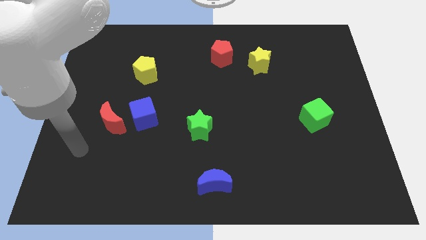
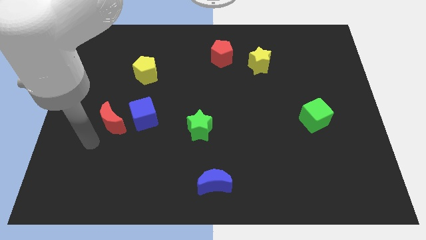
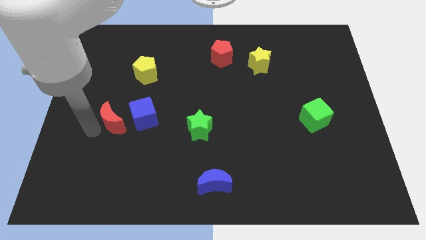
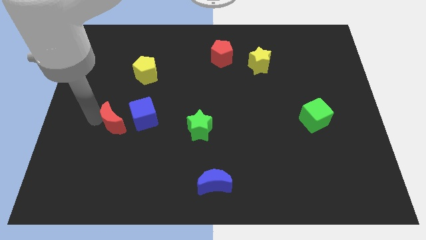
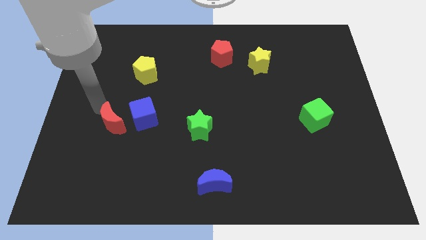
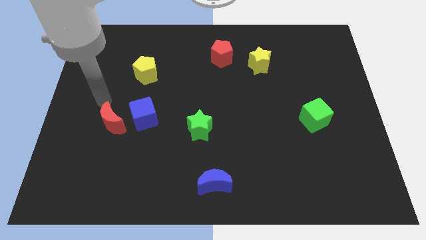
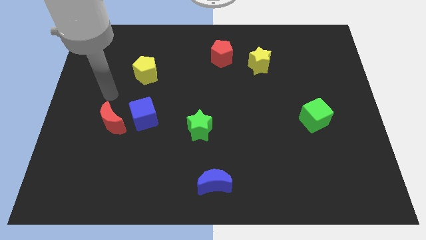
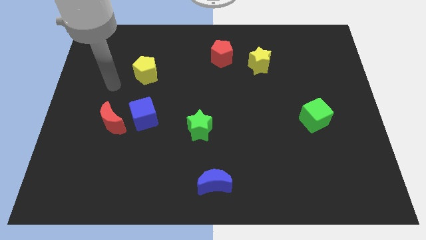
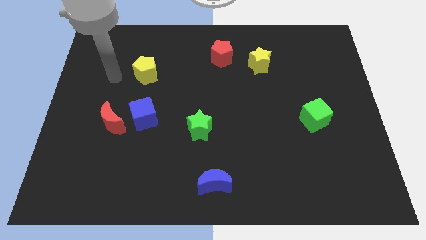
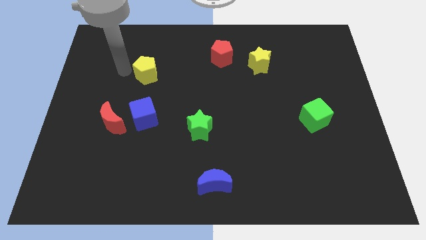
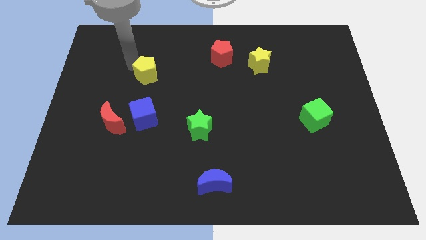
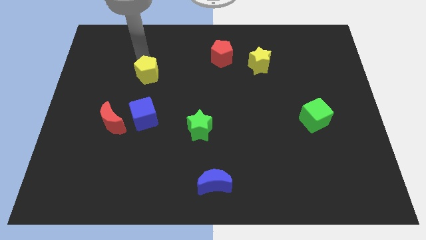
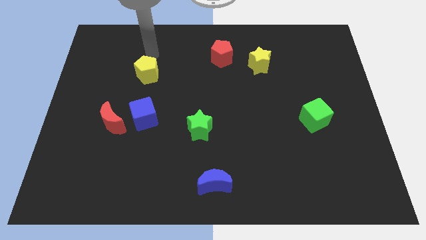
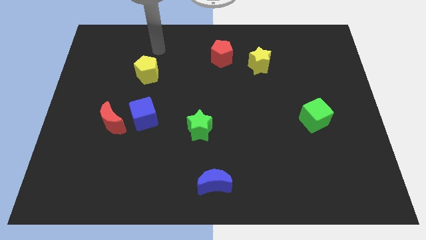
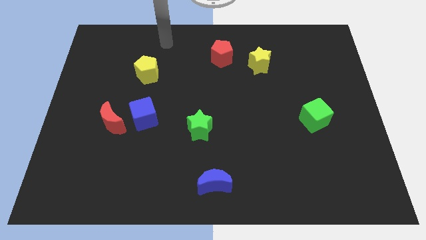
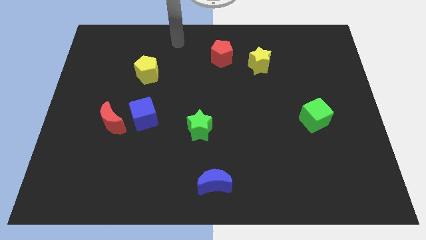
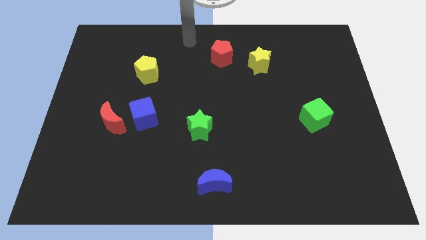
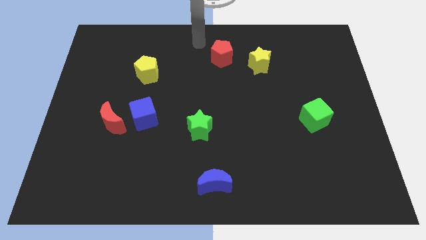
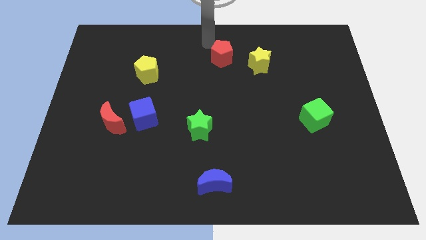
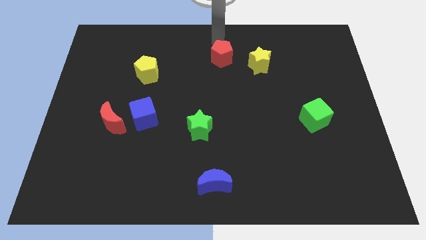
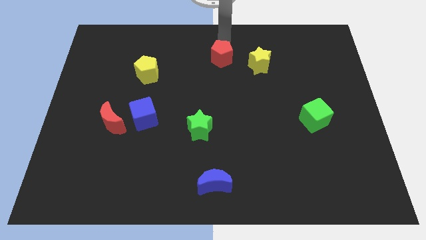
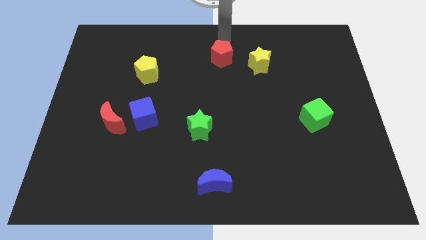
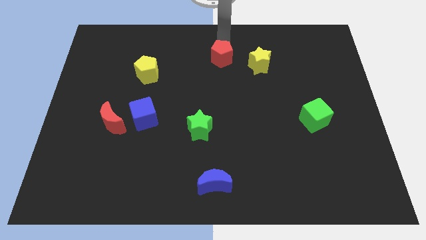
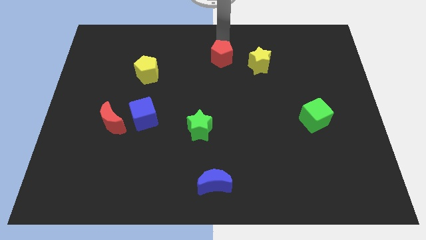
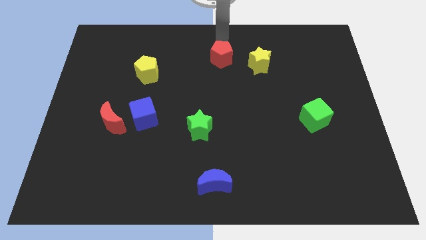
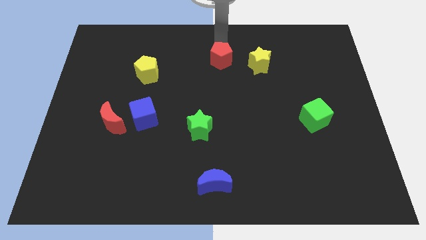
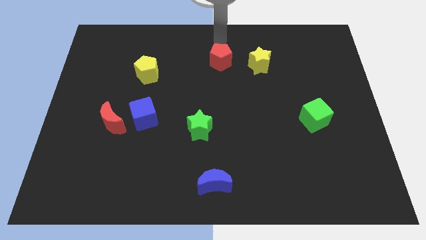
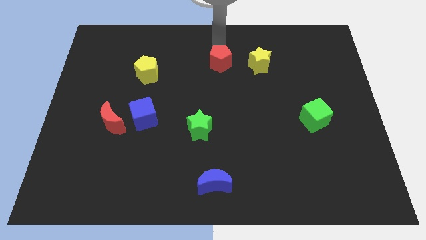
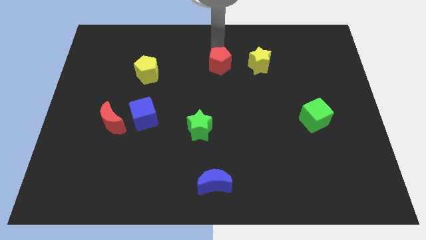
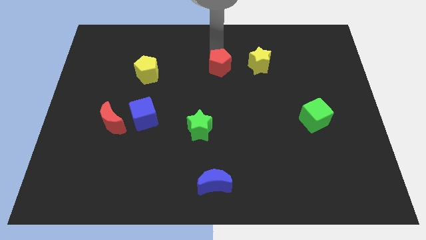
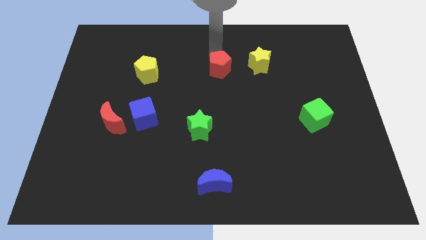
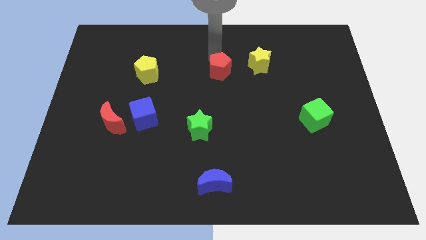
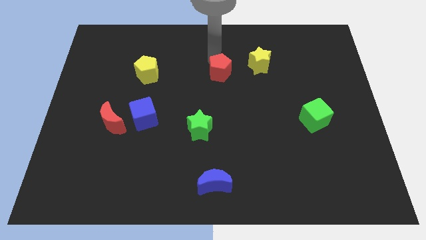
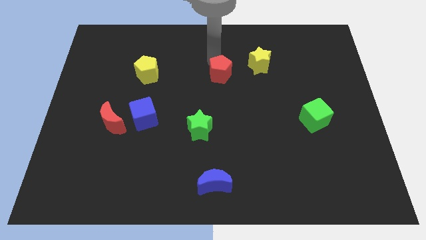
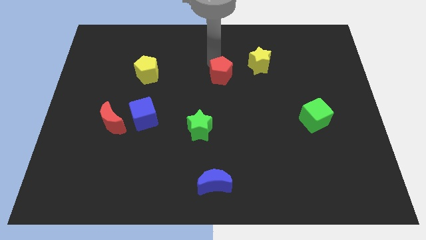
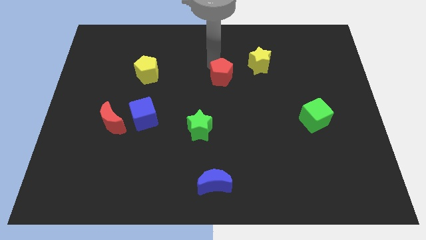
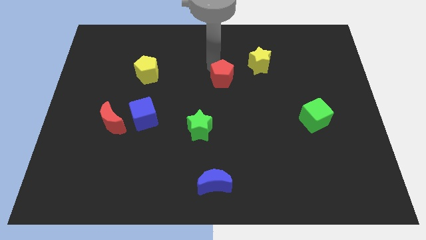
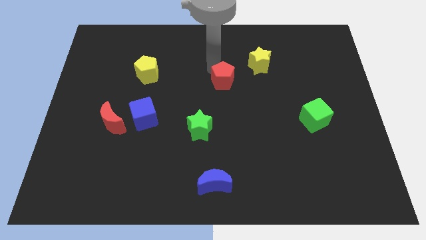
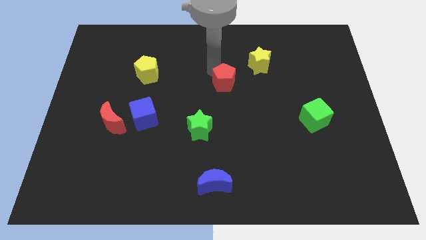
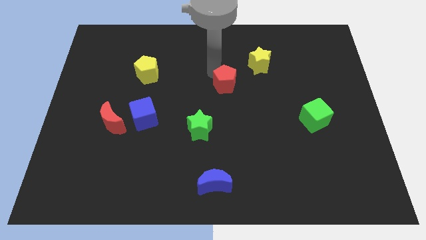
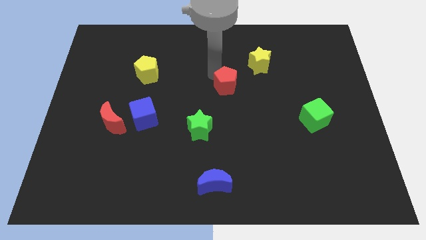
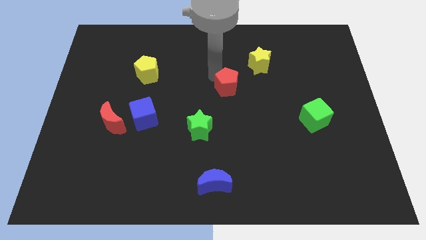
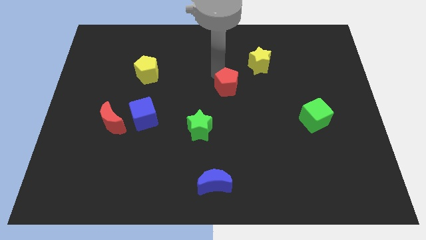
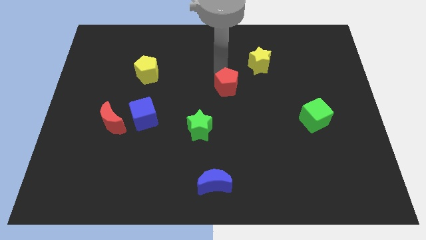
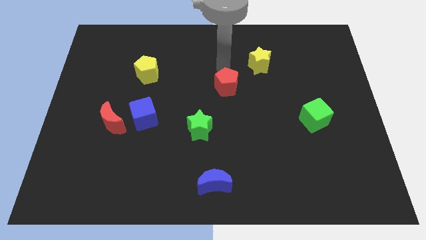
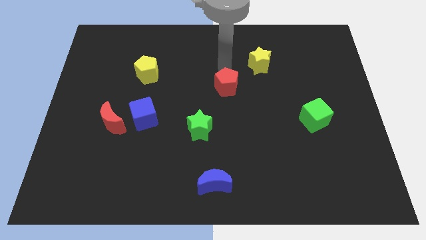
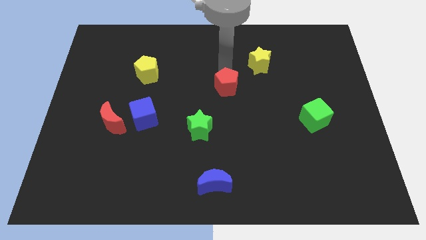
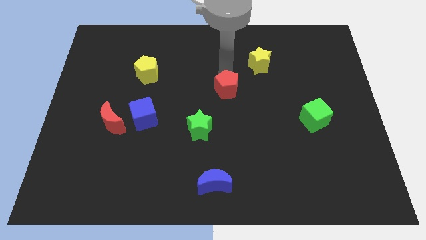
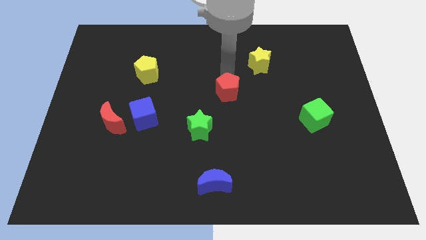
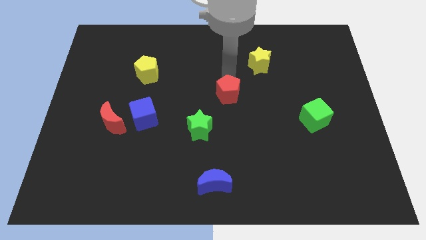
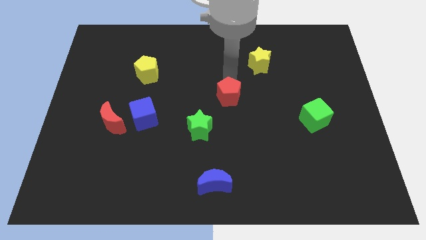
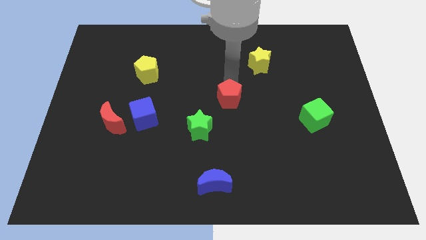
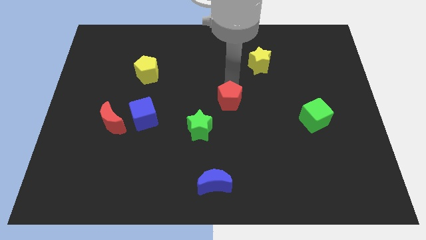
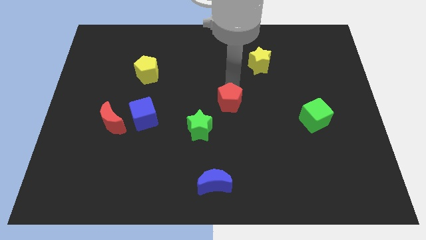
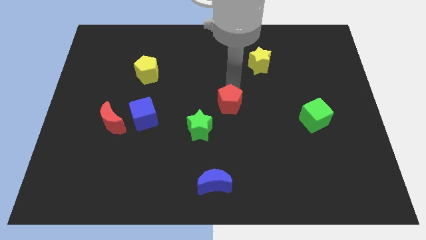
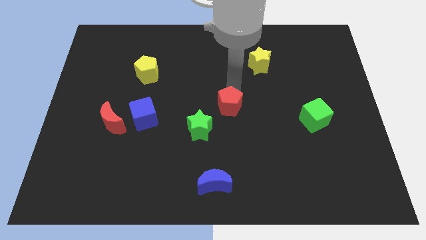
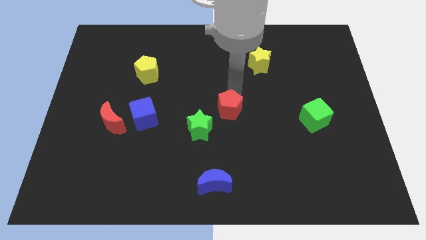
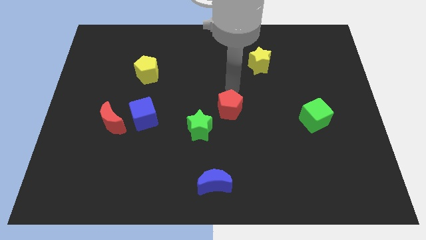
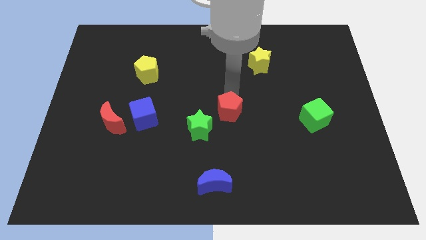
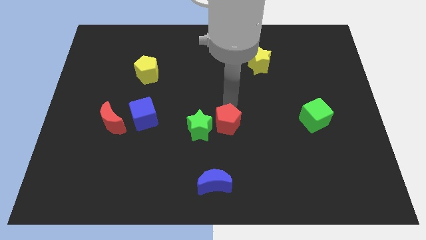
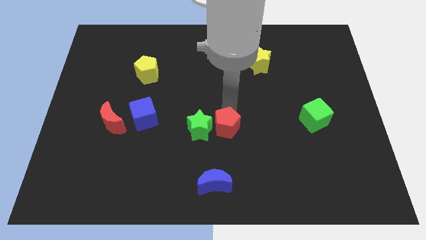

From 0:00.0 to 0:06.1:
slide the red pentagon to the bottom right side of the green star
